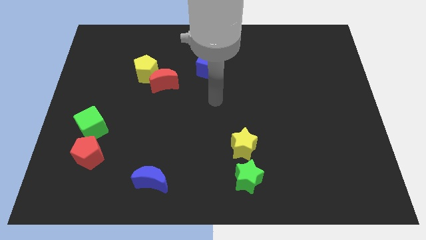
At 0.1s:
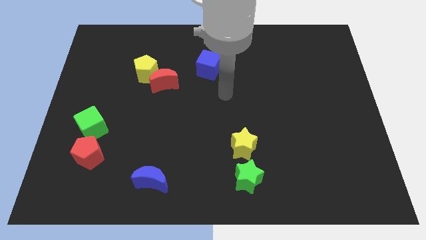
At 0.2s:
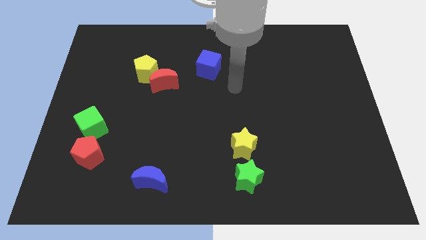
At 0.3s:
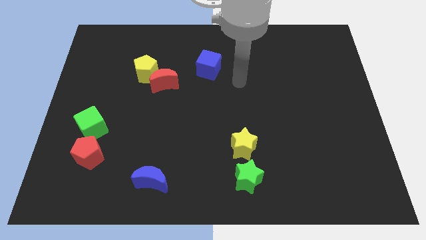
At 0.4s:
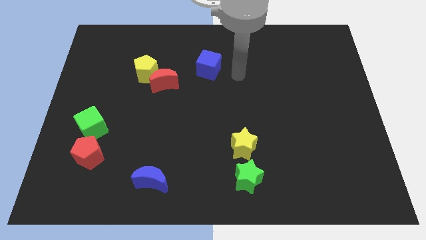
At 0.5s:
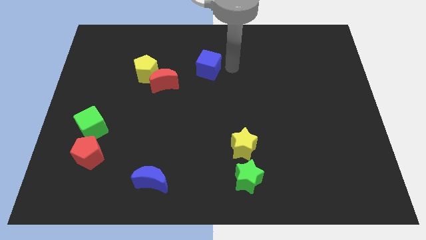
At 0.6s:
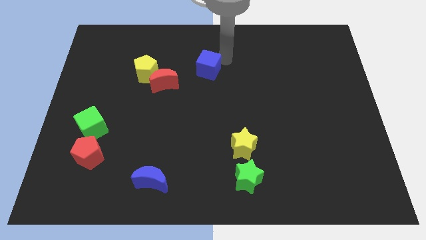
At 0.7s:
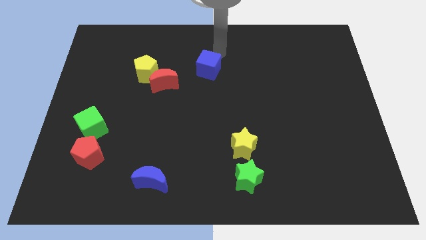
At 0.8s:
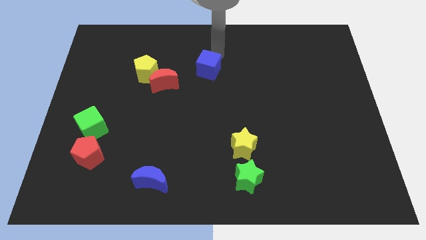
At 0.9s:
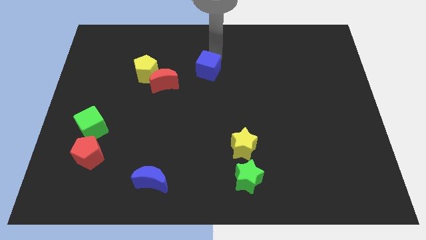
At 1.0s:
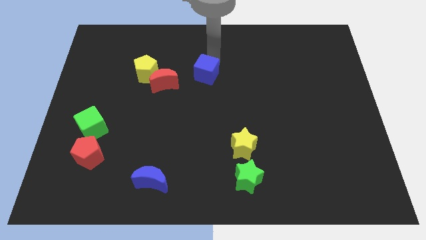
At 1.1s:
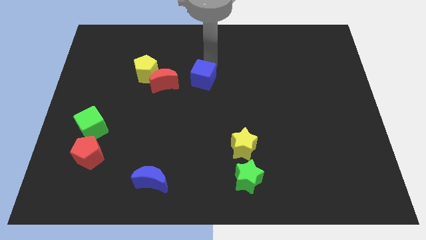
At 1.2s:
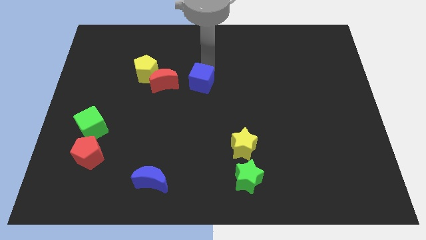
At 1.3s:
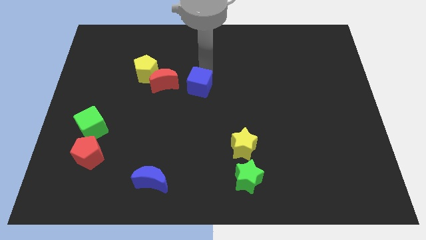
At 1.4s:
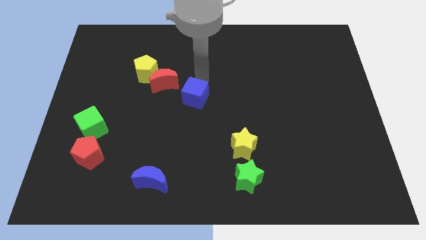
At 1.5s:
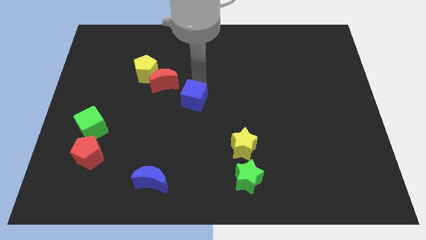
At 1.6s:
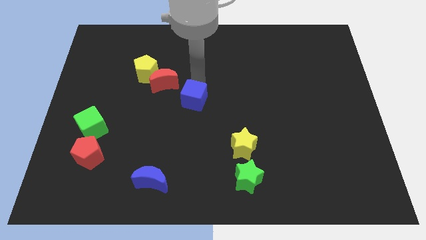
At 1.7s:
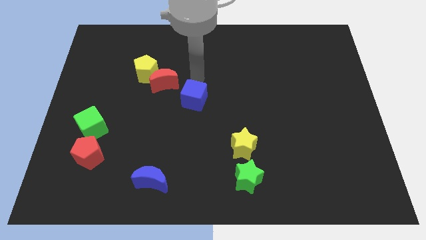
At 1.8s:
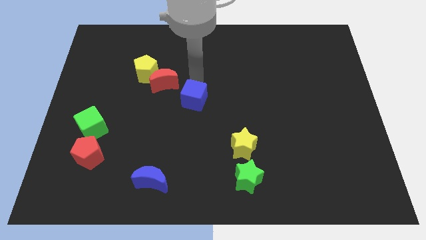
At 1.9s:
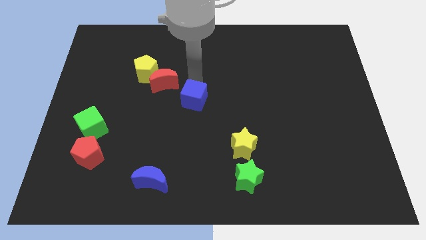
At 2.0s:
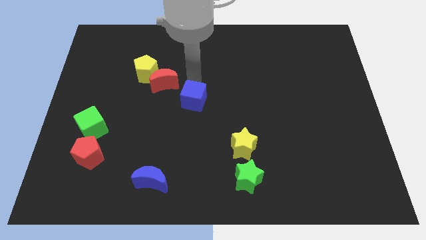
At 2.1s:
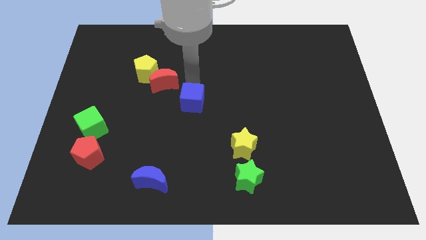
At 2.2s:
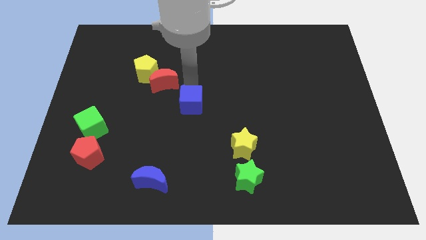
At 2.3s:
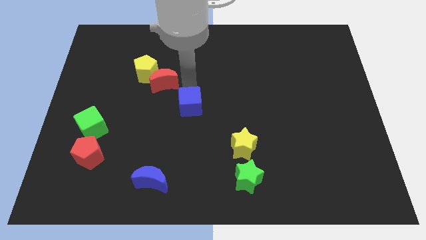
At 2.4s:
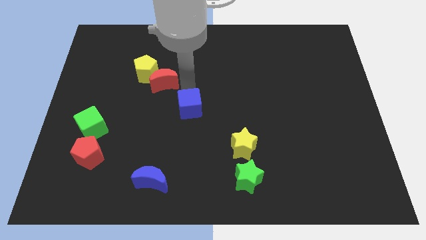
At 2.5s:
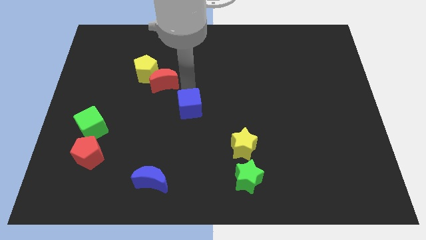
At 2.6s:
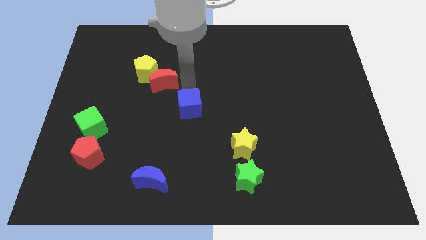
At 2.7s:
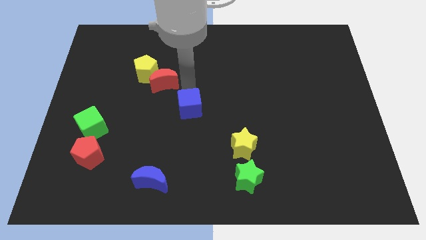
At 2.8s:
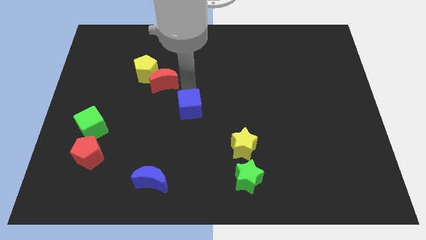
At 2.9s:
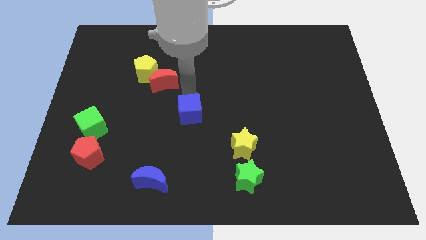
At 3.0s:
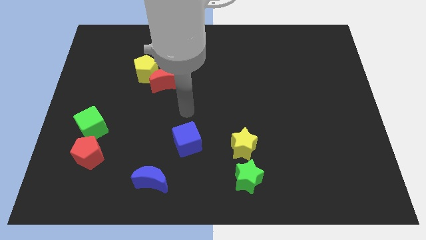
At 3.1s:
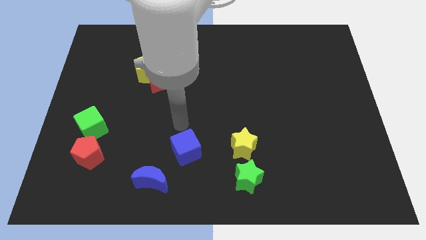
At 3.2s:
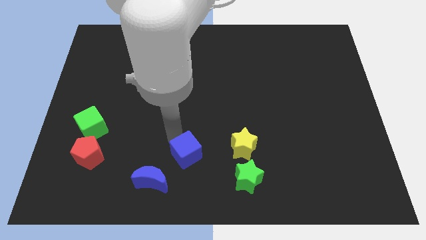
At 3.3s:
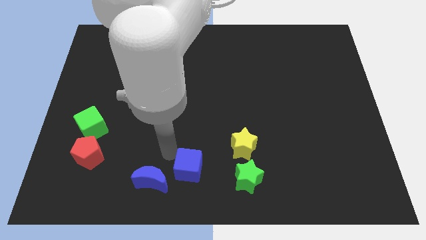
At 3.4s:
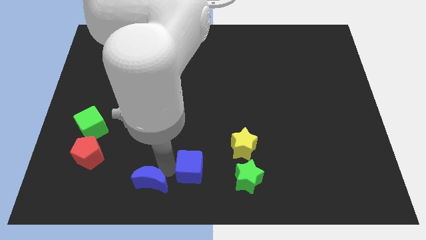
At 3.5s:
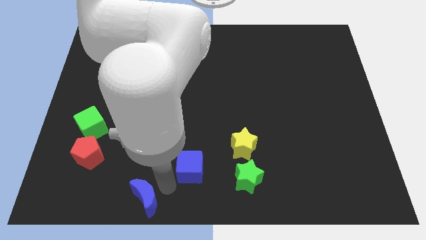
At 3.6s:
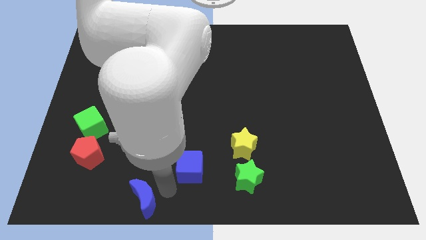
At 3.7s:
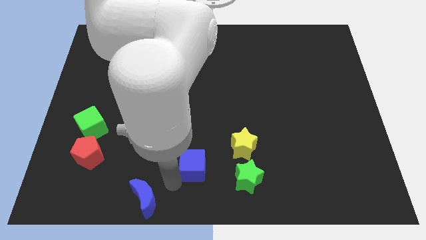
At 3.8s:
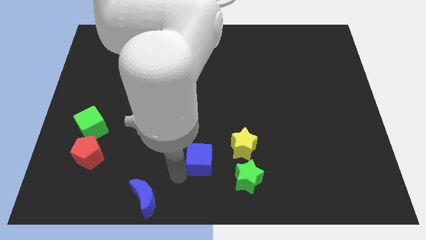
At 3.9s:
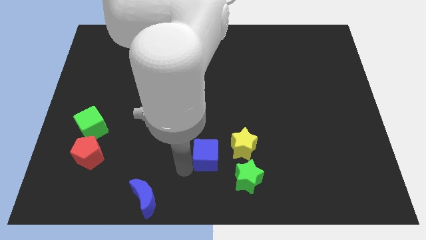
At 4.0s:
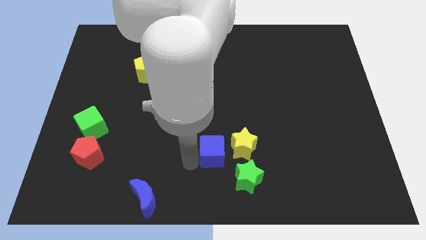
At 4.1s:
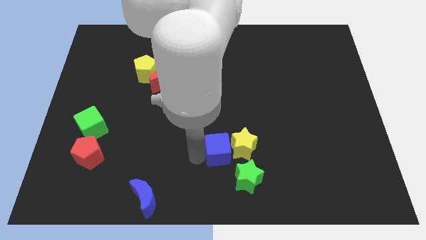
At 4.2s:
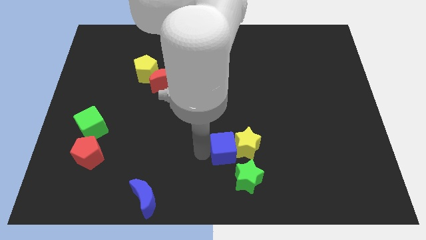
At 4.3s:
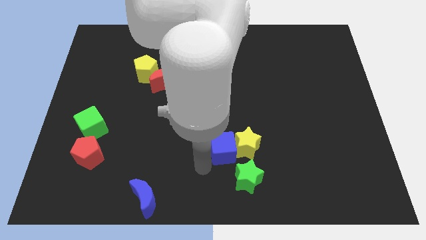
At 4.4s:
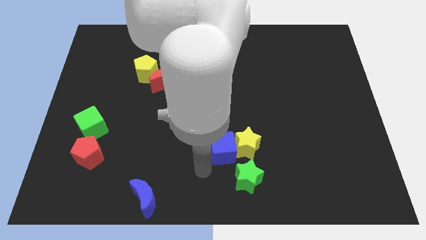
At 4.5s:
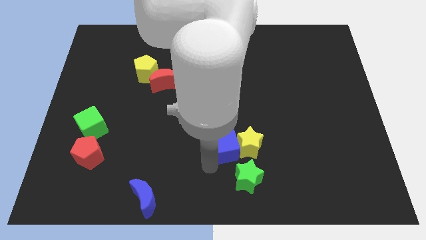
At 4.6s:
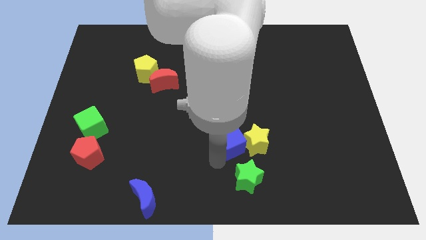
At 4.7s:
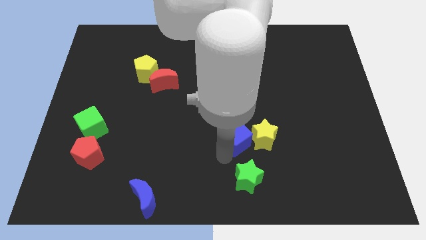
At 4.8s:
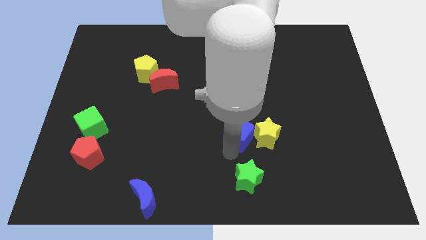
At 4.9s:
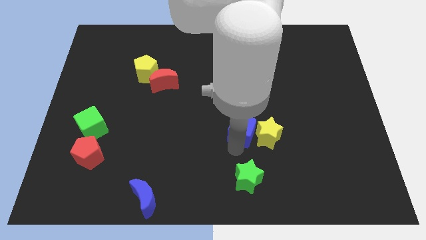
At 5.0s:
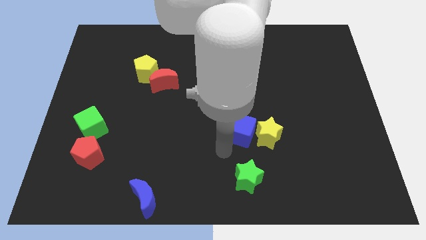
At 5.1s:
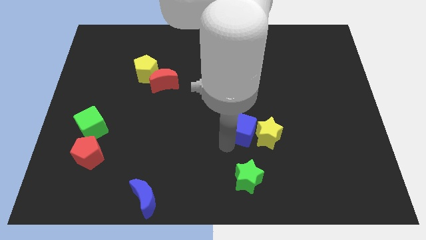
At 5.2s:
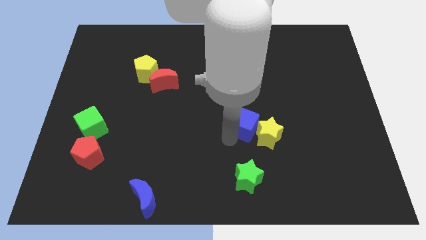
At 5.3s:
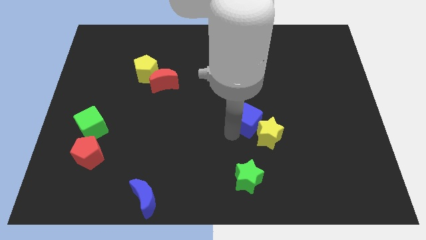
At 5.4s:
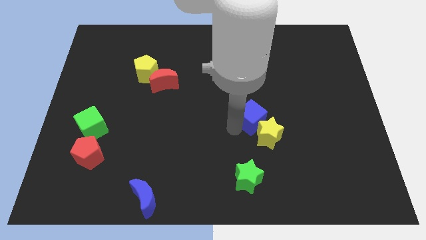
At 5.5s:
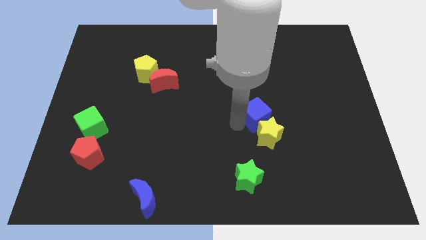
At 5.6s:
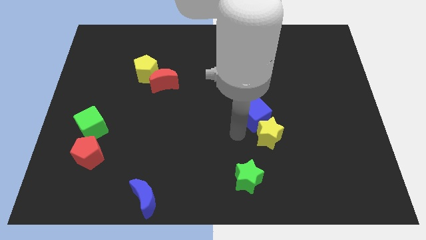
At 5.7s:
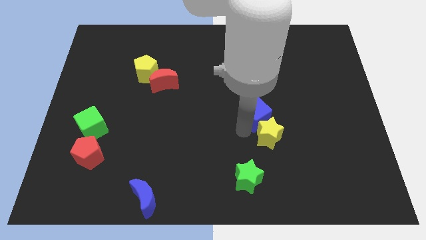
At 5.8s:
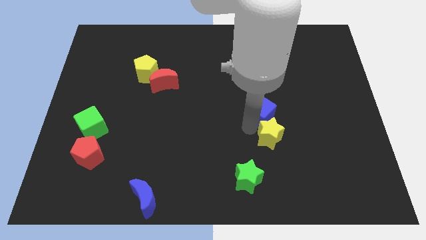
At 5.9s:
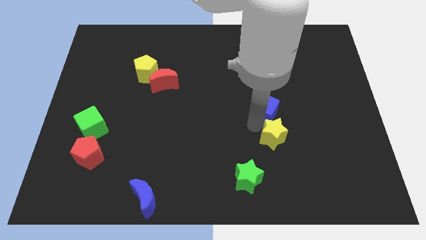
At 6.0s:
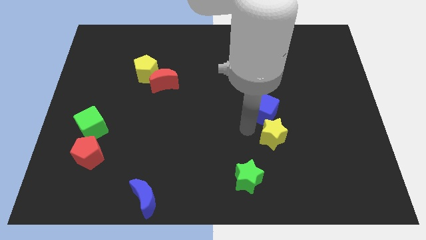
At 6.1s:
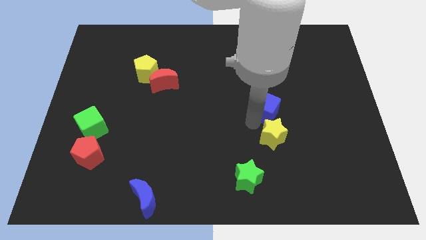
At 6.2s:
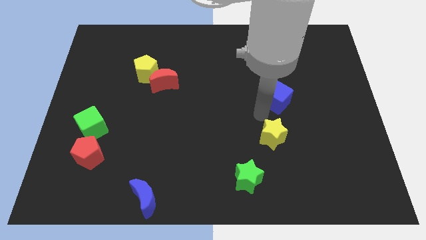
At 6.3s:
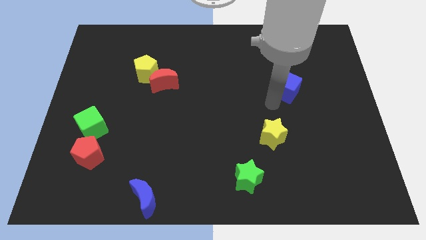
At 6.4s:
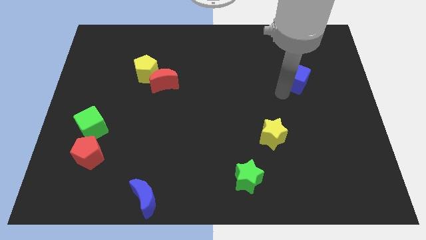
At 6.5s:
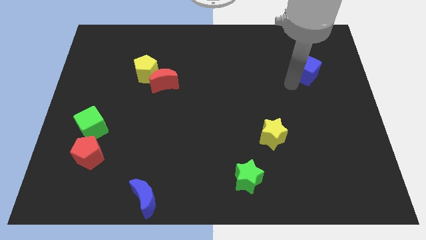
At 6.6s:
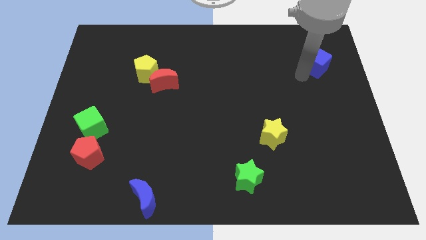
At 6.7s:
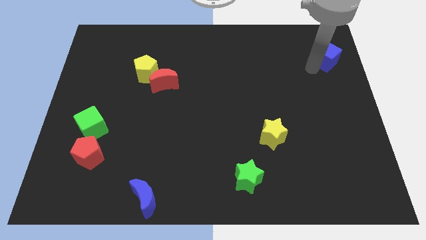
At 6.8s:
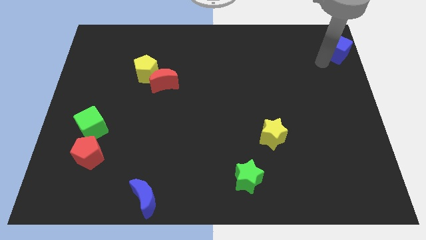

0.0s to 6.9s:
push the blue cube to the top right of the board
